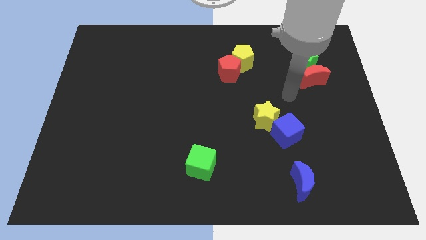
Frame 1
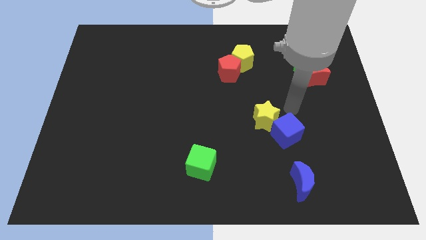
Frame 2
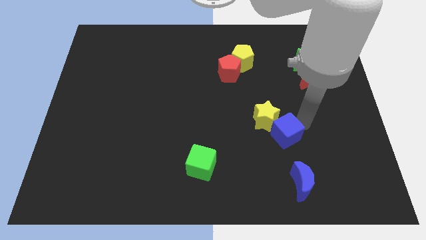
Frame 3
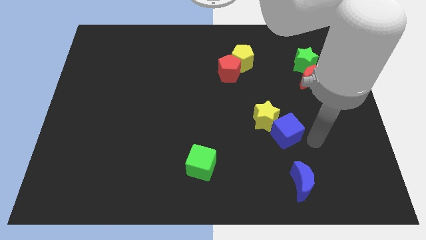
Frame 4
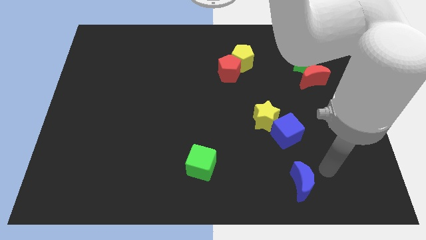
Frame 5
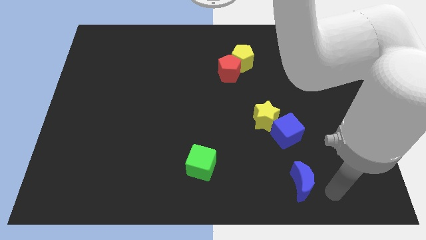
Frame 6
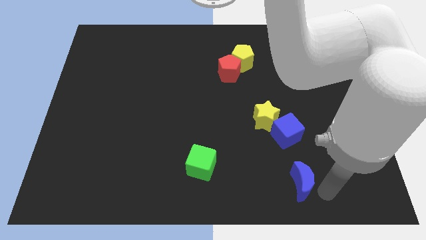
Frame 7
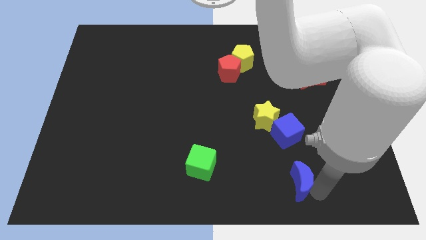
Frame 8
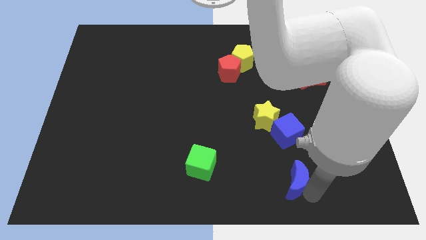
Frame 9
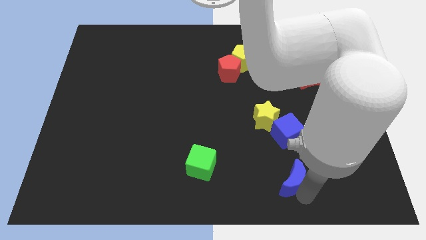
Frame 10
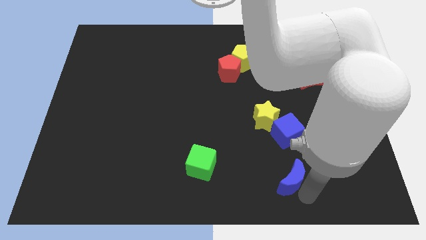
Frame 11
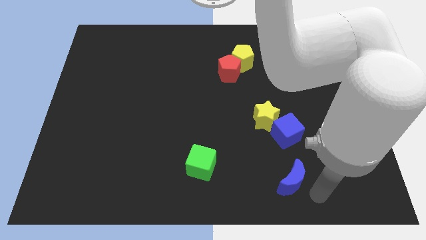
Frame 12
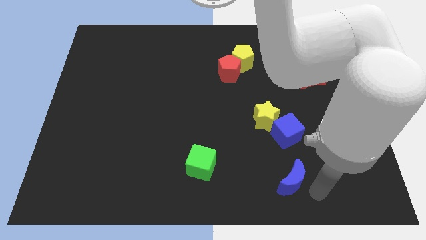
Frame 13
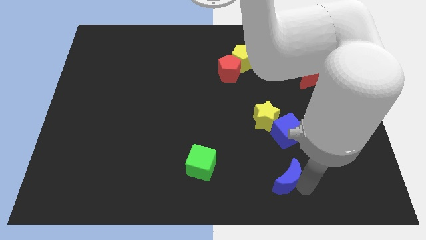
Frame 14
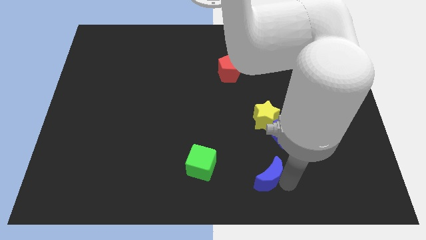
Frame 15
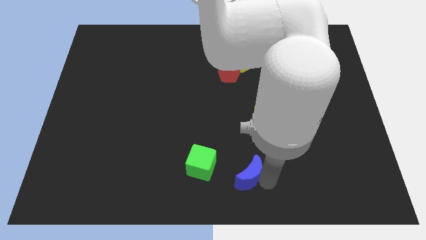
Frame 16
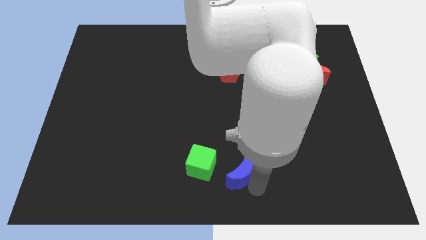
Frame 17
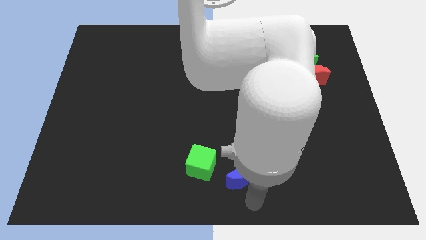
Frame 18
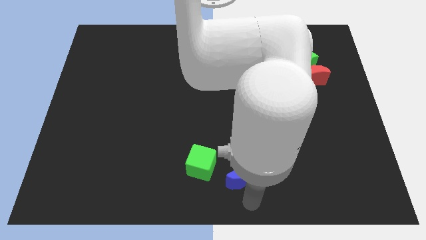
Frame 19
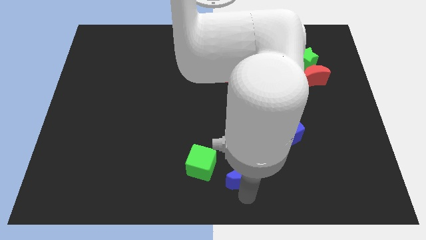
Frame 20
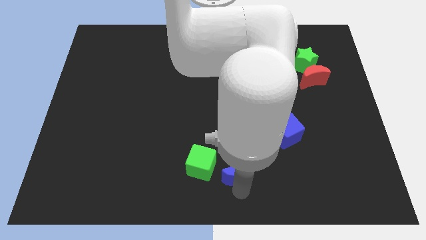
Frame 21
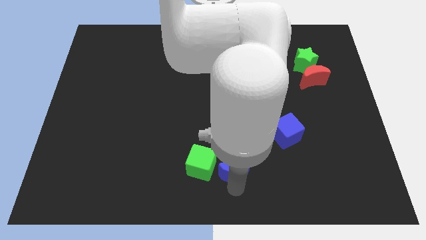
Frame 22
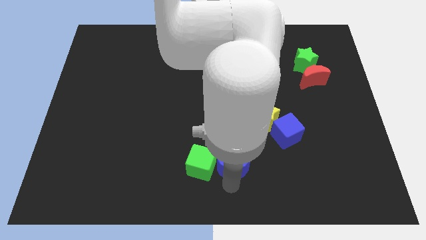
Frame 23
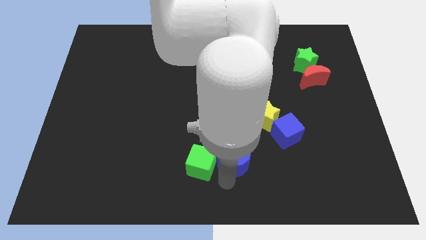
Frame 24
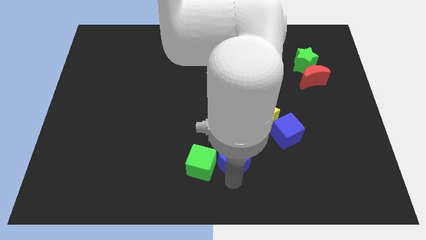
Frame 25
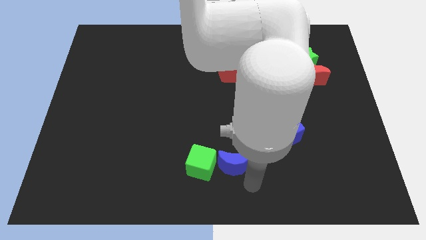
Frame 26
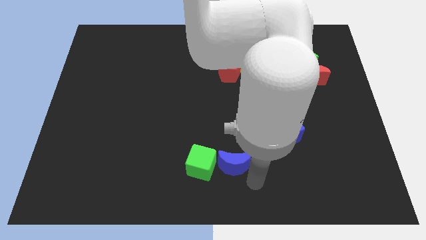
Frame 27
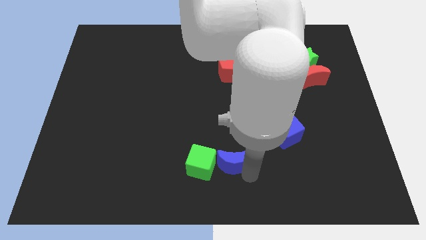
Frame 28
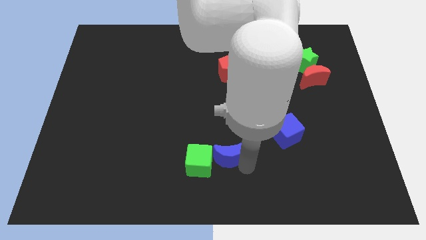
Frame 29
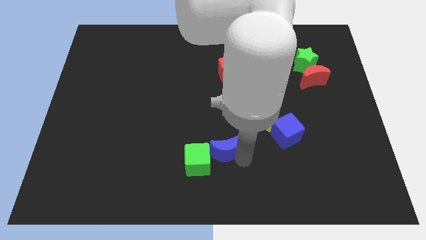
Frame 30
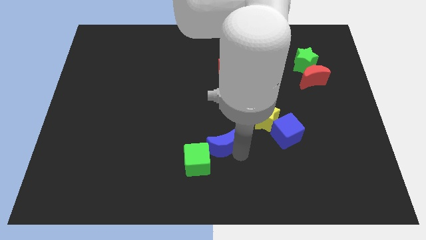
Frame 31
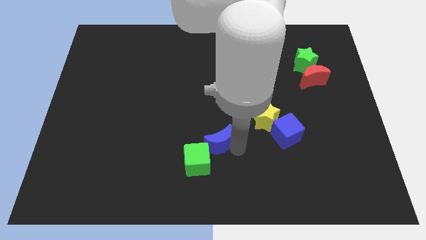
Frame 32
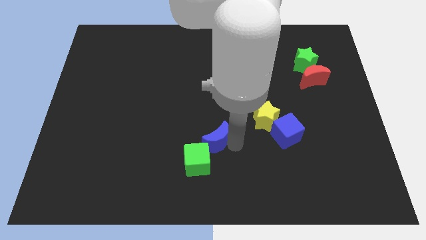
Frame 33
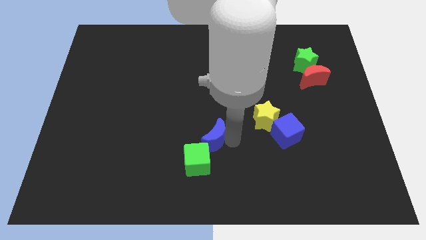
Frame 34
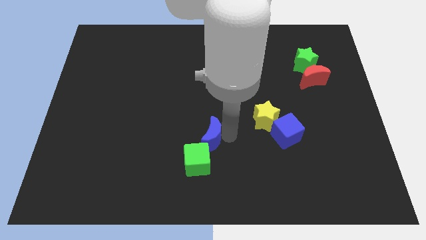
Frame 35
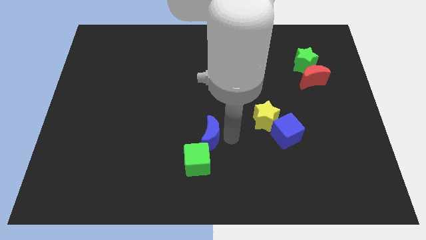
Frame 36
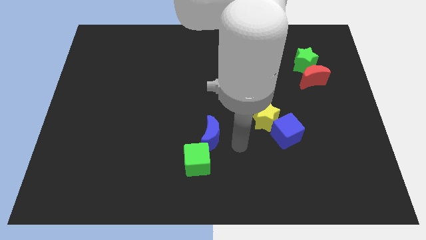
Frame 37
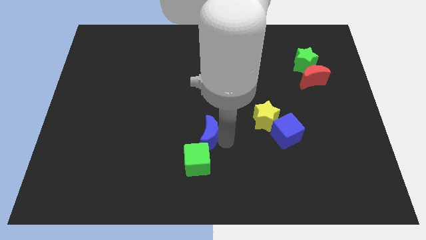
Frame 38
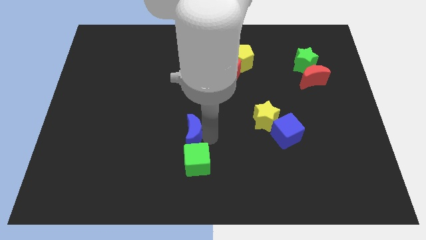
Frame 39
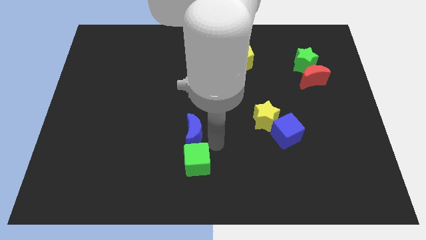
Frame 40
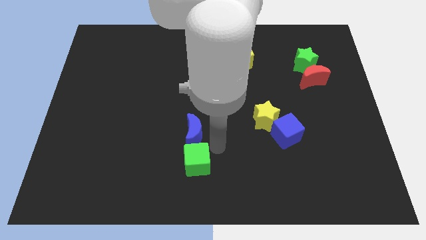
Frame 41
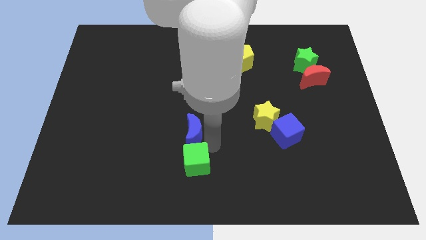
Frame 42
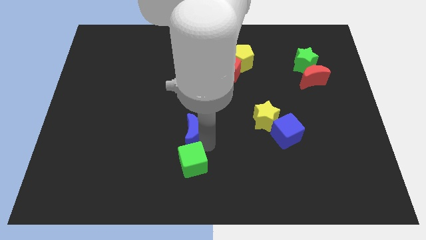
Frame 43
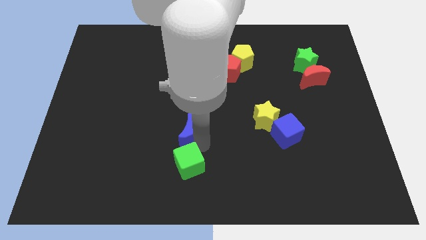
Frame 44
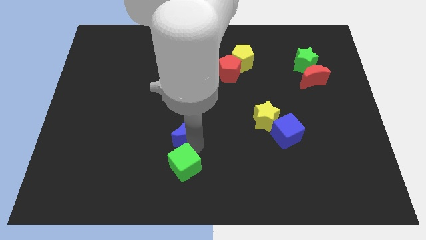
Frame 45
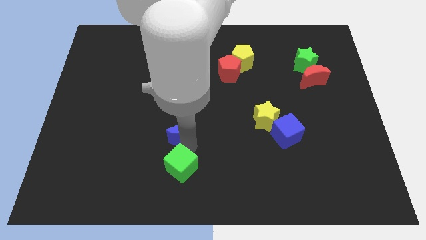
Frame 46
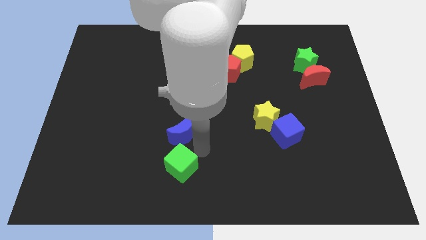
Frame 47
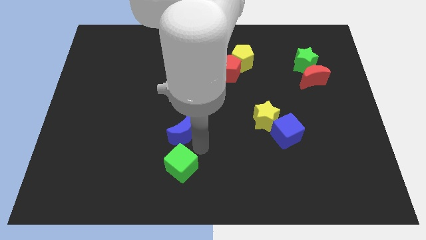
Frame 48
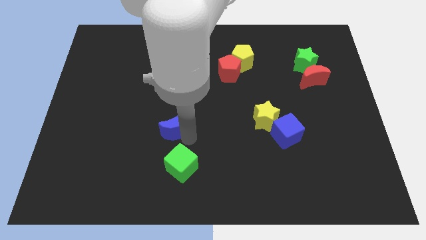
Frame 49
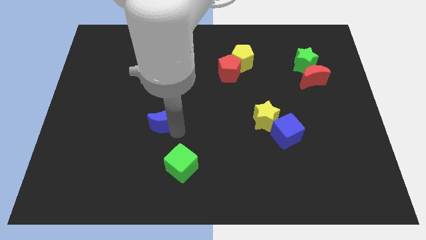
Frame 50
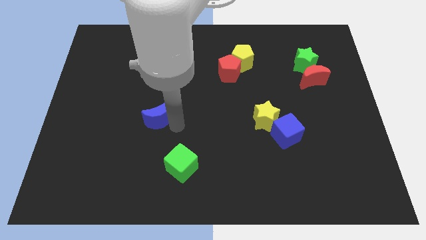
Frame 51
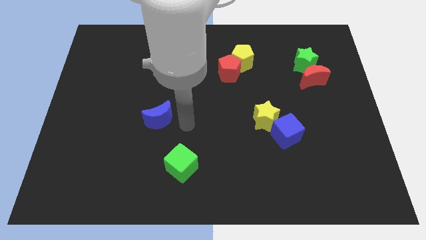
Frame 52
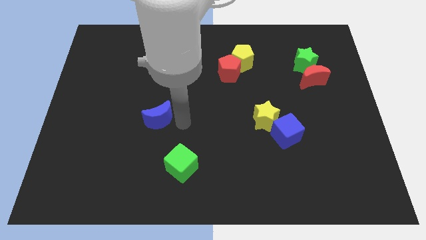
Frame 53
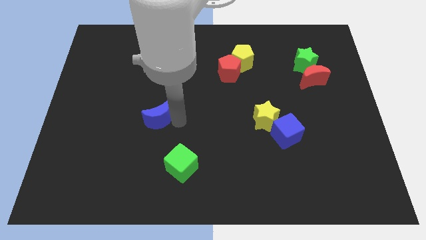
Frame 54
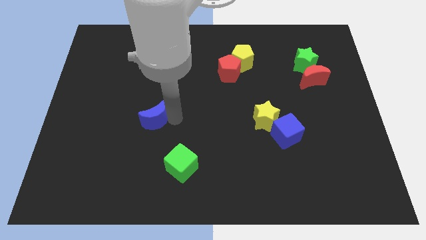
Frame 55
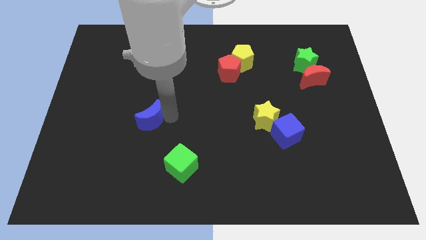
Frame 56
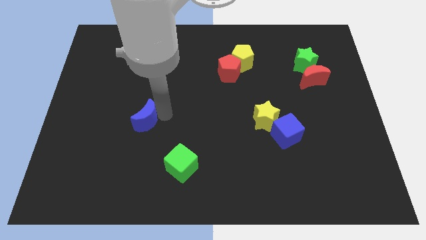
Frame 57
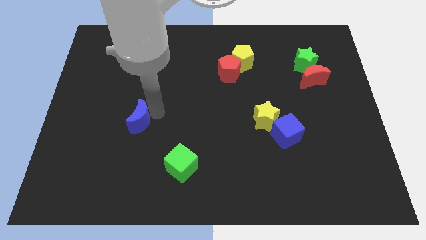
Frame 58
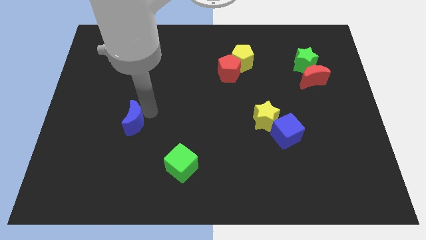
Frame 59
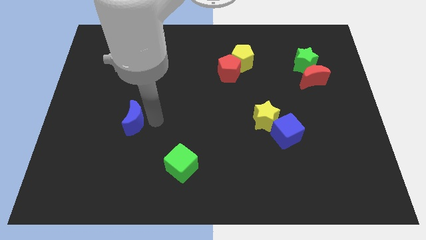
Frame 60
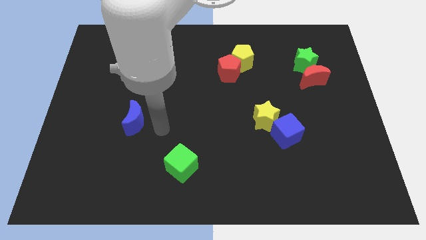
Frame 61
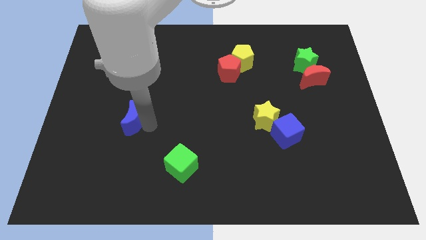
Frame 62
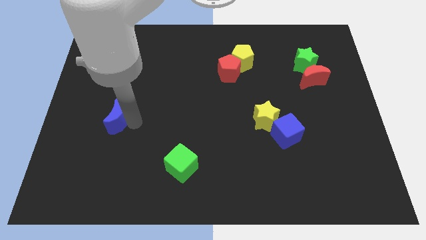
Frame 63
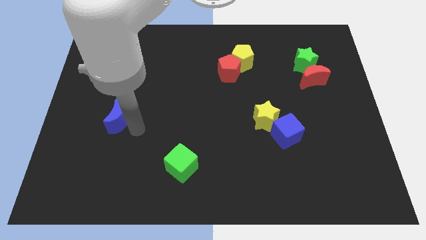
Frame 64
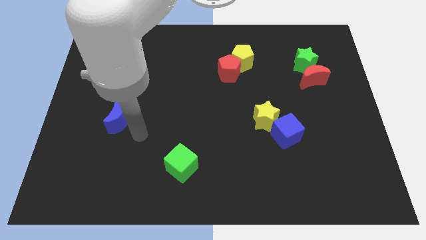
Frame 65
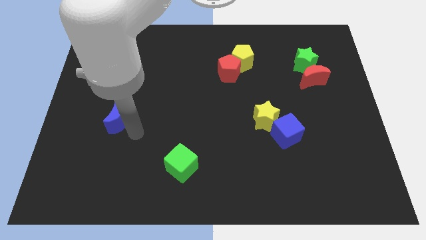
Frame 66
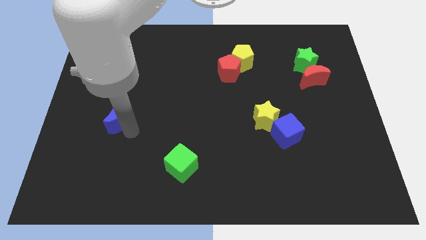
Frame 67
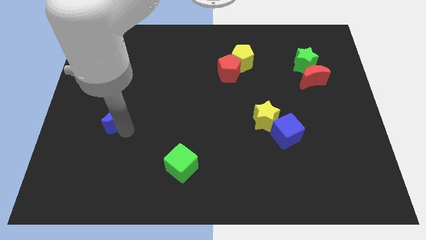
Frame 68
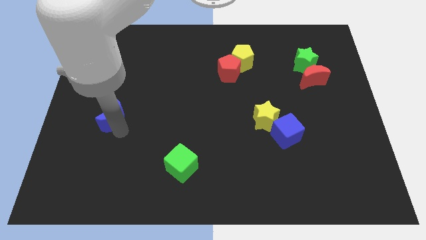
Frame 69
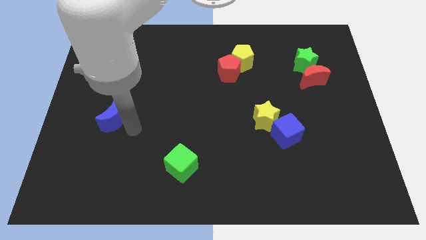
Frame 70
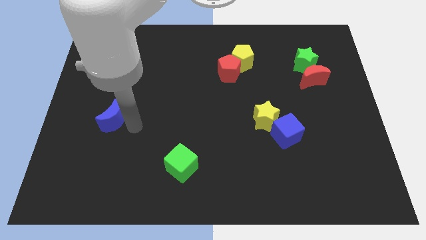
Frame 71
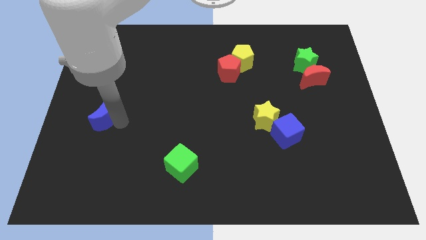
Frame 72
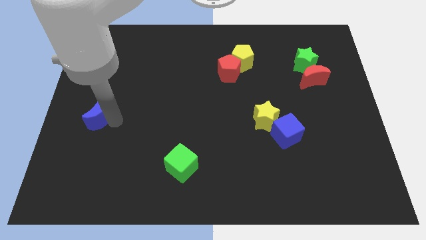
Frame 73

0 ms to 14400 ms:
push the blue moon to the center left
